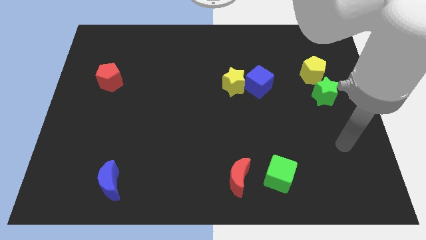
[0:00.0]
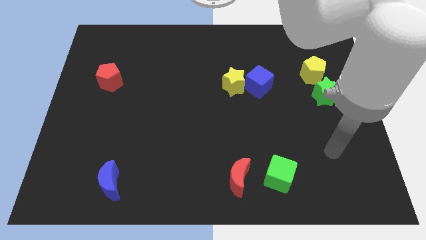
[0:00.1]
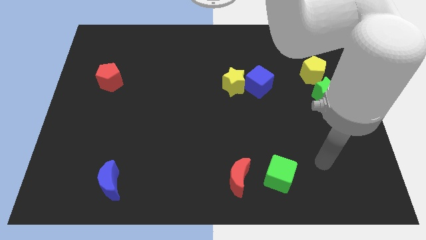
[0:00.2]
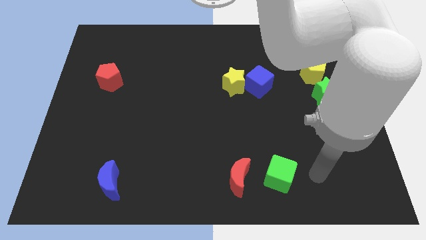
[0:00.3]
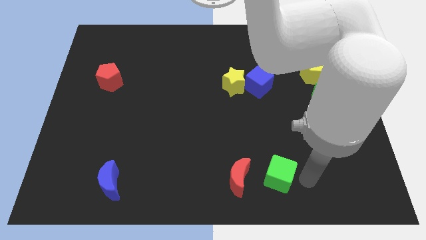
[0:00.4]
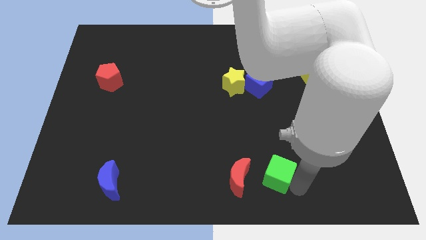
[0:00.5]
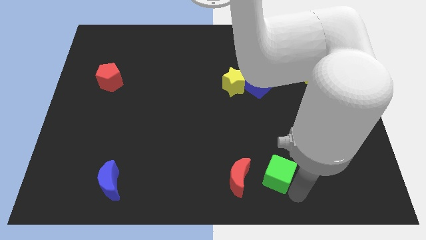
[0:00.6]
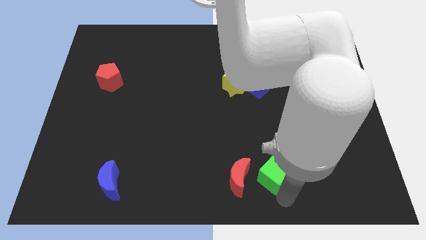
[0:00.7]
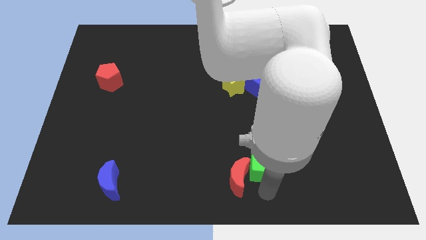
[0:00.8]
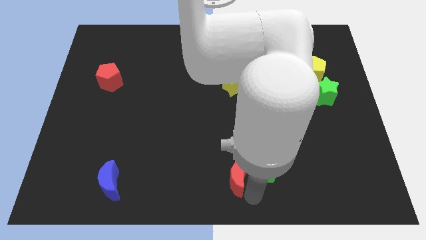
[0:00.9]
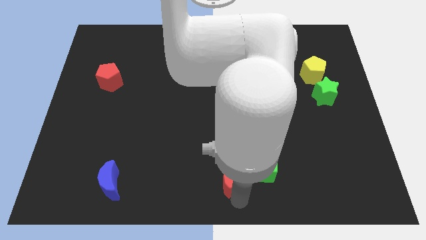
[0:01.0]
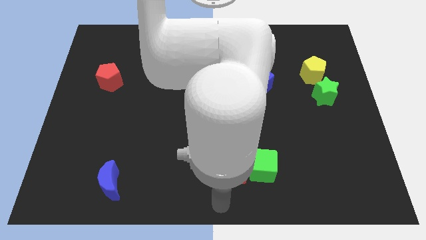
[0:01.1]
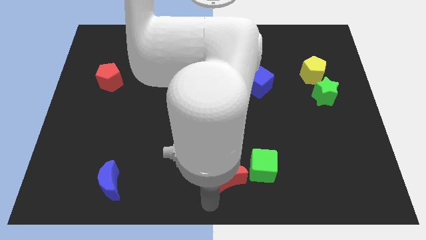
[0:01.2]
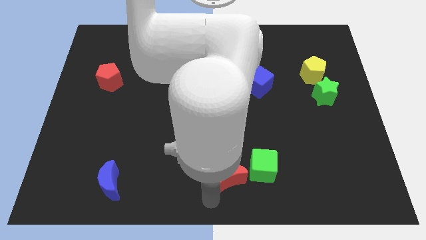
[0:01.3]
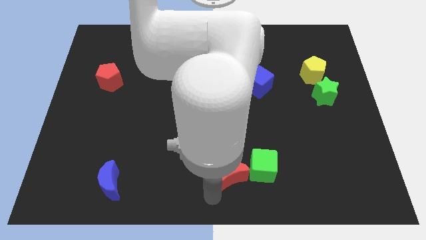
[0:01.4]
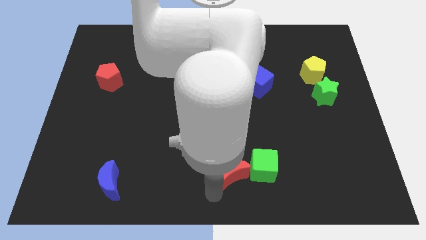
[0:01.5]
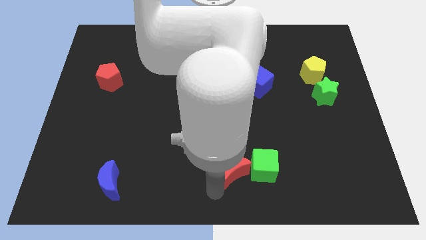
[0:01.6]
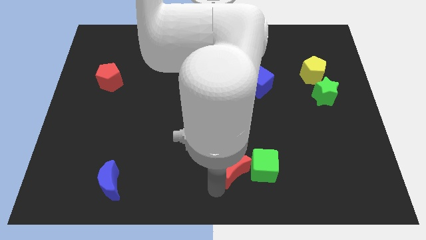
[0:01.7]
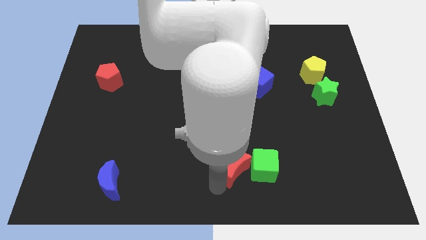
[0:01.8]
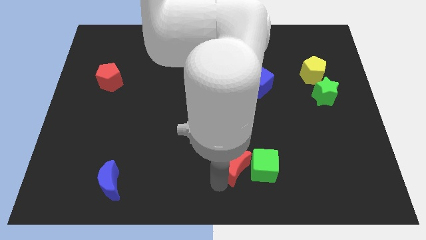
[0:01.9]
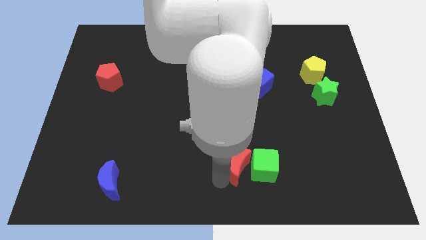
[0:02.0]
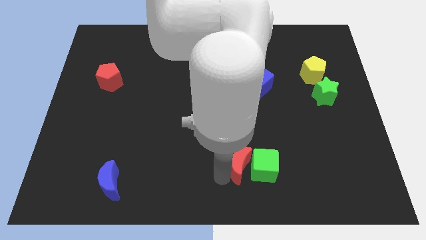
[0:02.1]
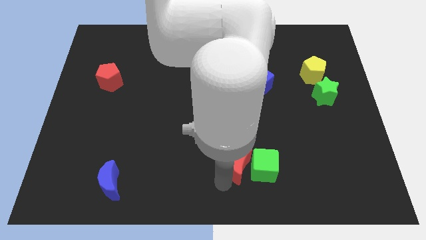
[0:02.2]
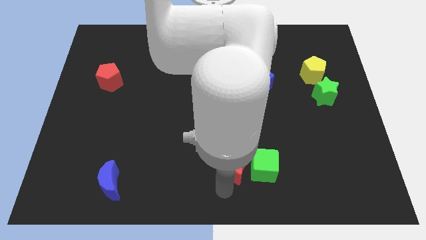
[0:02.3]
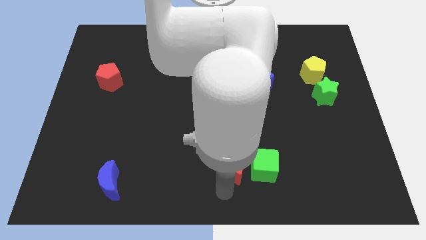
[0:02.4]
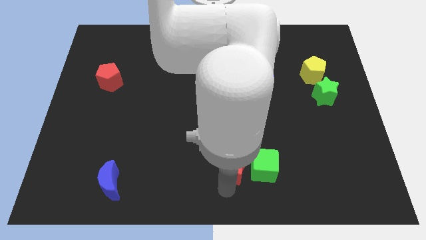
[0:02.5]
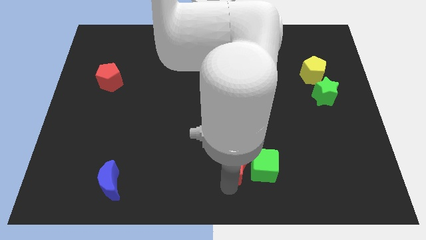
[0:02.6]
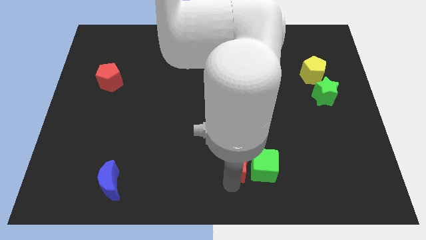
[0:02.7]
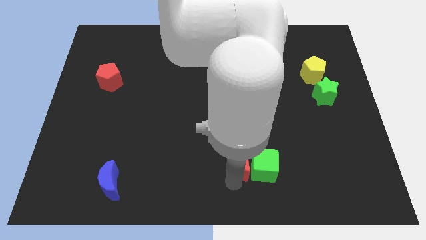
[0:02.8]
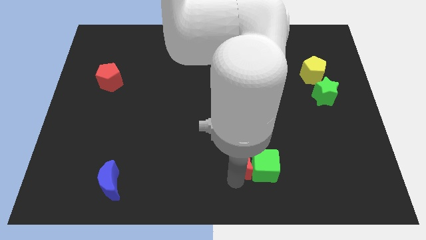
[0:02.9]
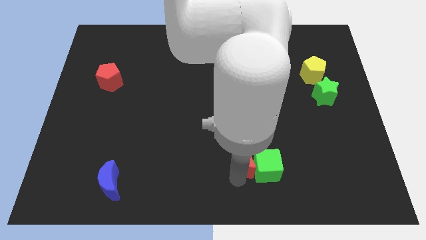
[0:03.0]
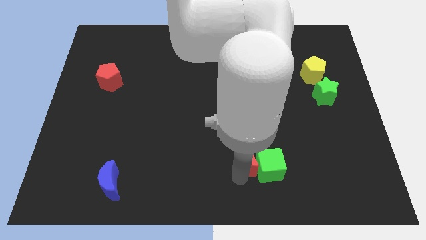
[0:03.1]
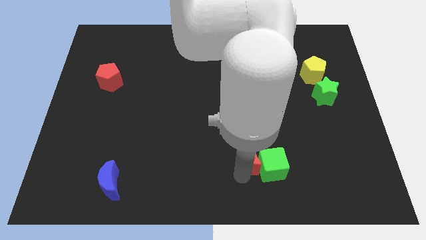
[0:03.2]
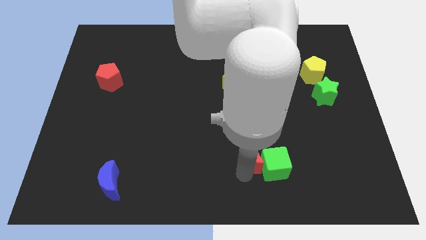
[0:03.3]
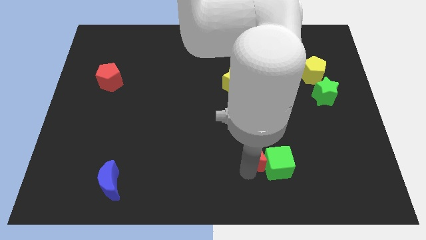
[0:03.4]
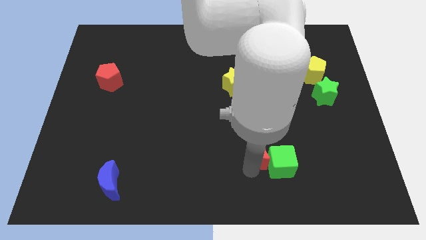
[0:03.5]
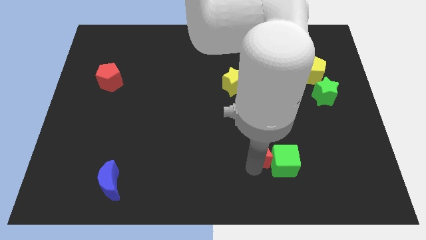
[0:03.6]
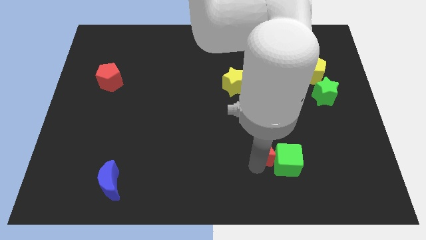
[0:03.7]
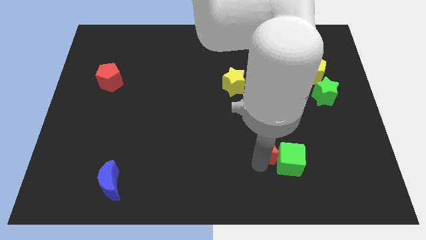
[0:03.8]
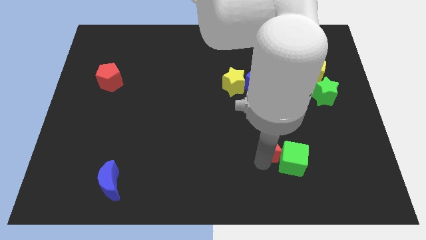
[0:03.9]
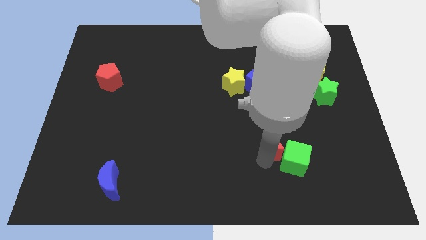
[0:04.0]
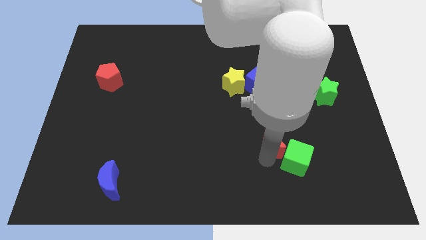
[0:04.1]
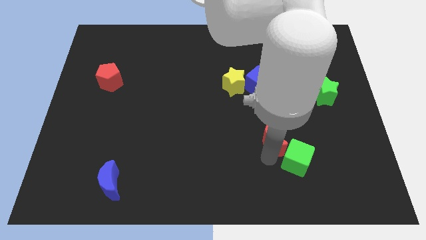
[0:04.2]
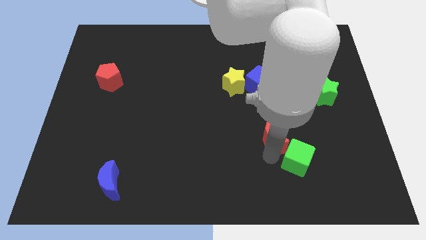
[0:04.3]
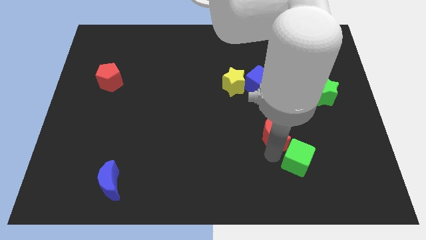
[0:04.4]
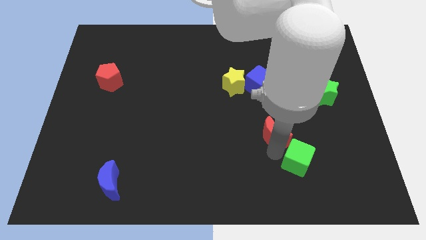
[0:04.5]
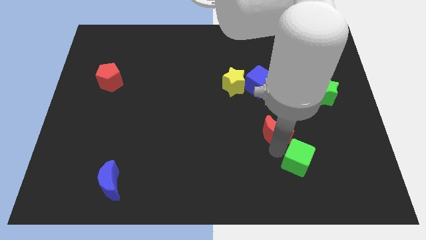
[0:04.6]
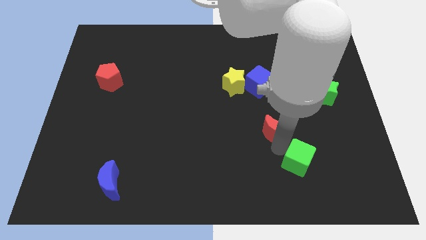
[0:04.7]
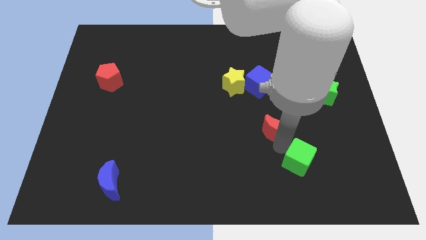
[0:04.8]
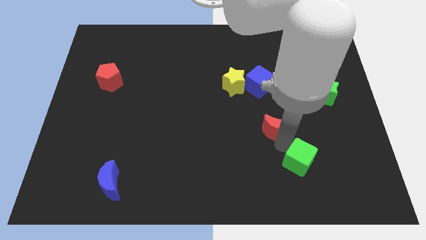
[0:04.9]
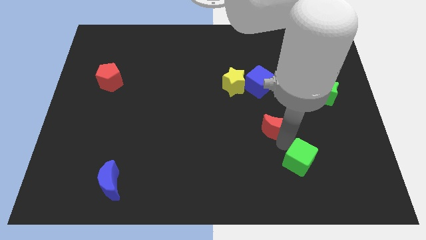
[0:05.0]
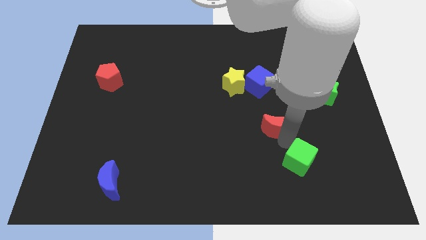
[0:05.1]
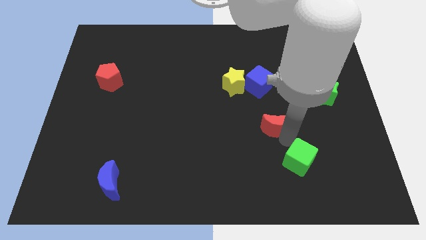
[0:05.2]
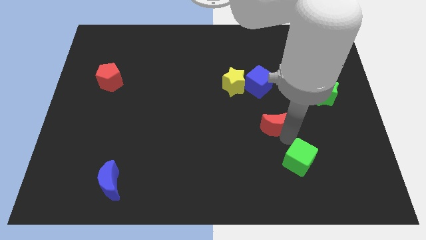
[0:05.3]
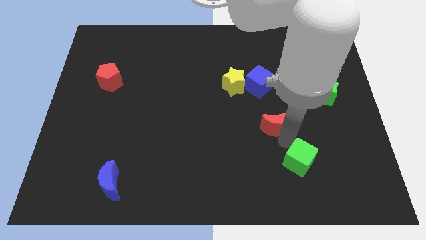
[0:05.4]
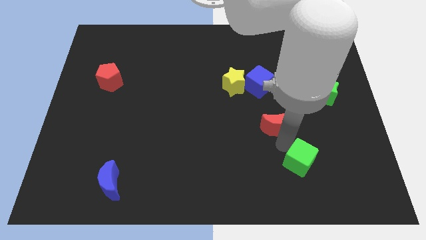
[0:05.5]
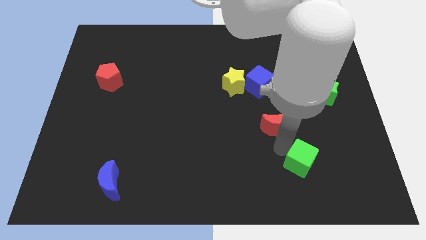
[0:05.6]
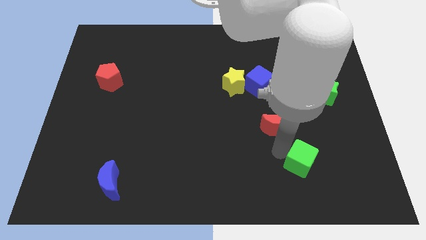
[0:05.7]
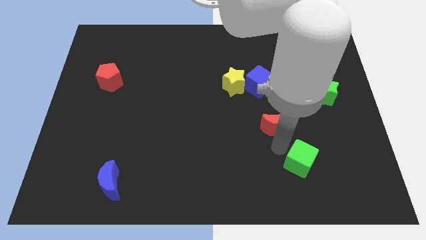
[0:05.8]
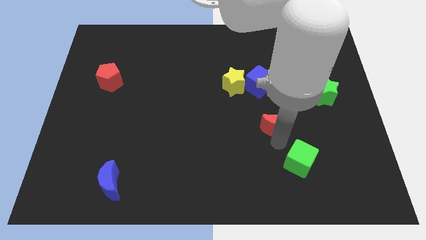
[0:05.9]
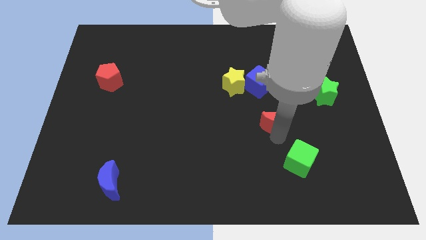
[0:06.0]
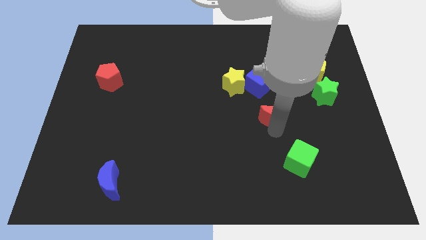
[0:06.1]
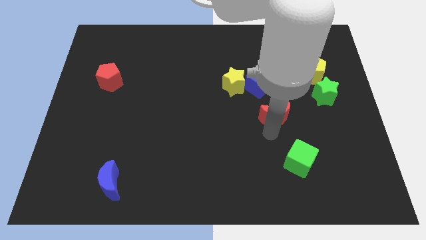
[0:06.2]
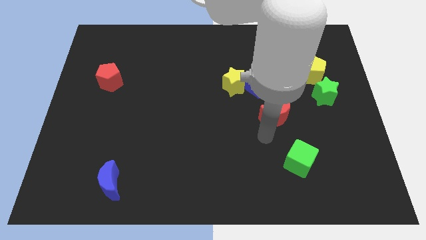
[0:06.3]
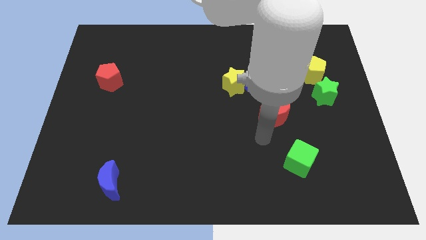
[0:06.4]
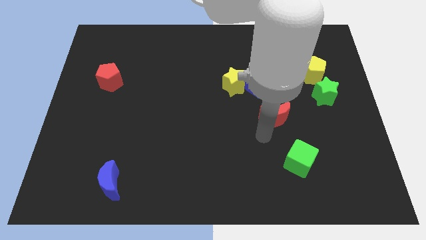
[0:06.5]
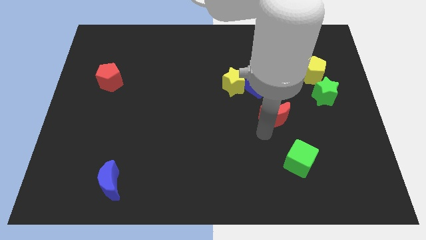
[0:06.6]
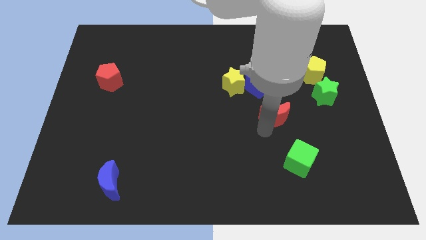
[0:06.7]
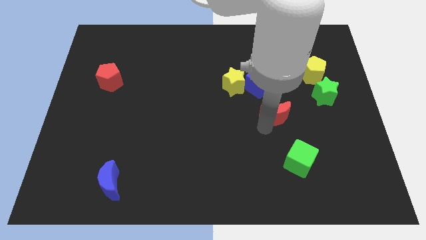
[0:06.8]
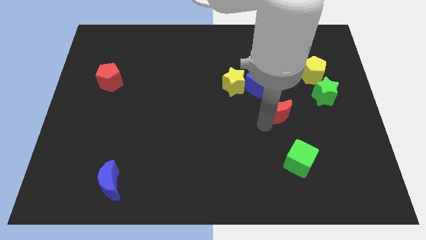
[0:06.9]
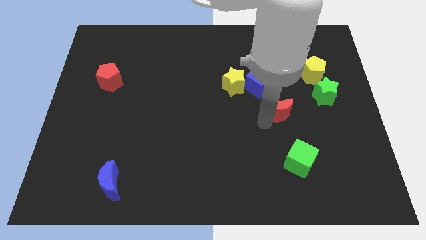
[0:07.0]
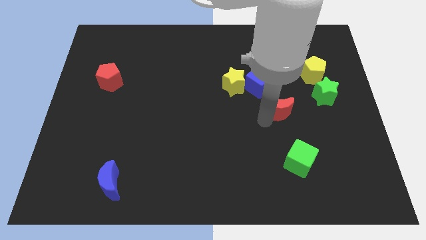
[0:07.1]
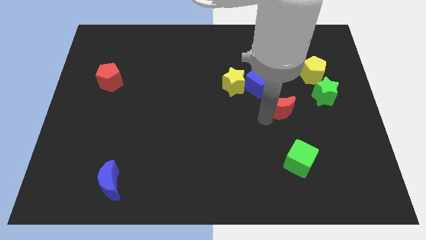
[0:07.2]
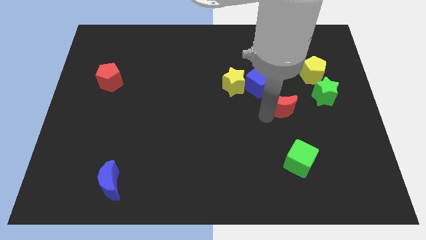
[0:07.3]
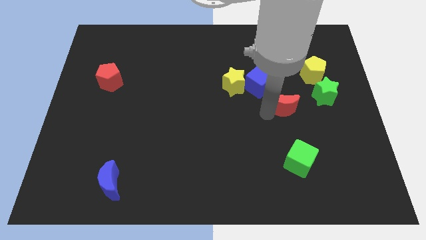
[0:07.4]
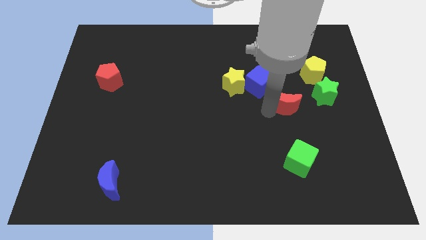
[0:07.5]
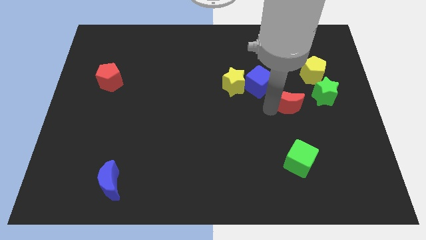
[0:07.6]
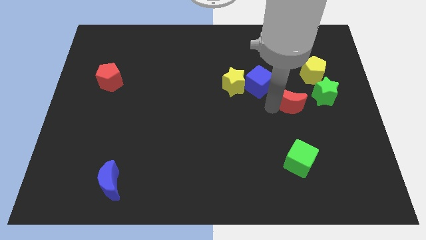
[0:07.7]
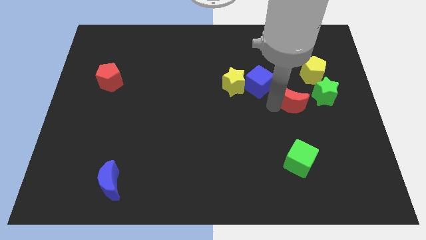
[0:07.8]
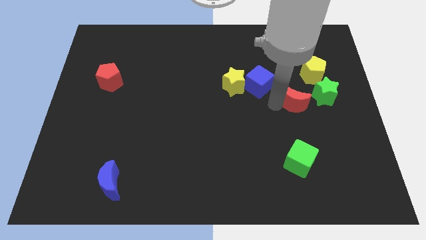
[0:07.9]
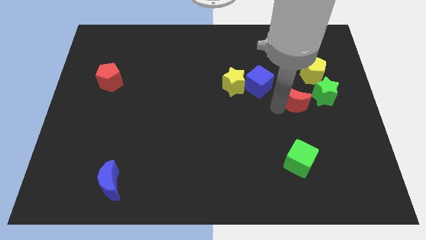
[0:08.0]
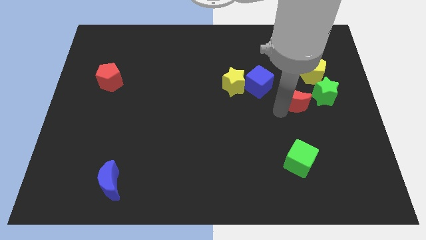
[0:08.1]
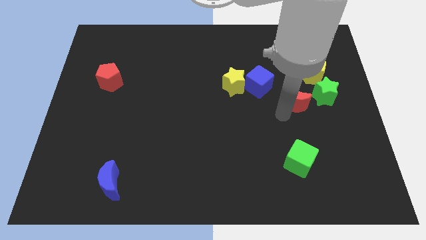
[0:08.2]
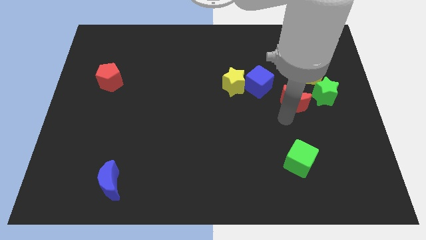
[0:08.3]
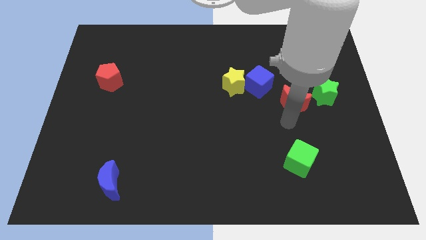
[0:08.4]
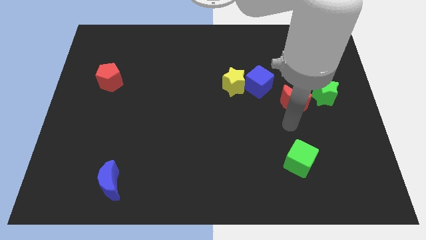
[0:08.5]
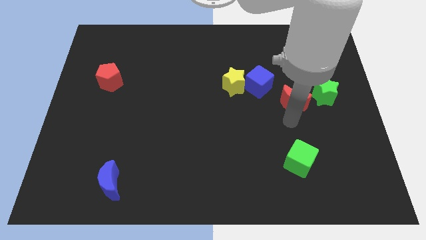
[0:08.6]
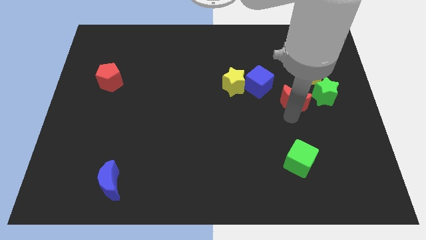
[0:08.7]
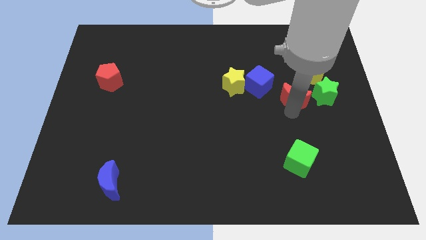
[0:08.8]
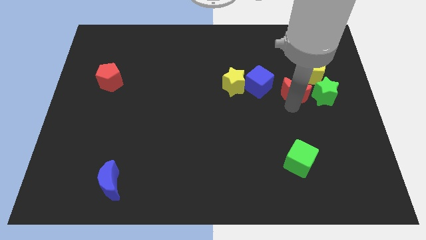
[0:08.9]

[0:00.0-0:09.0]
put the red moon to the top left of the green star
